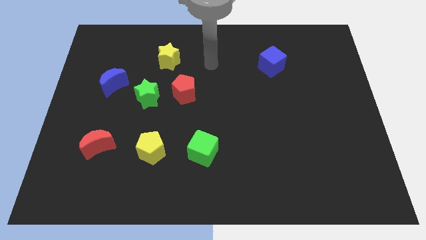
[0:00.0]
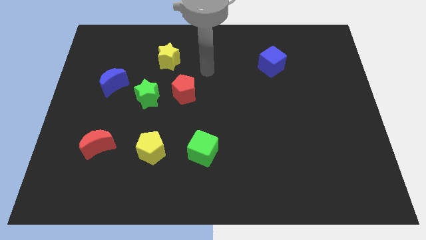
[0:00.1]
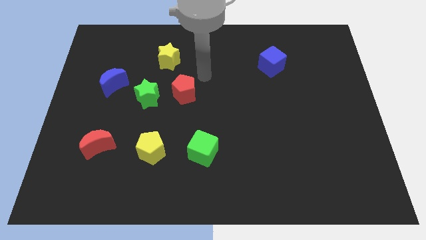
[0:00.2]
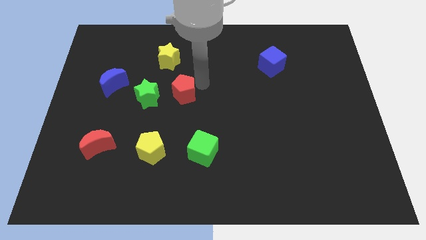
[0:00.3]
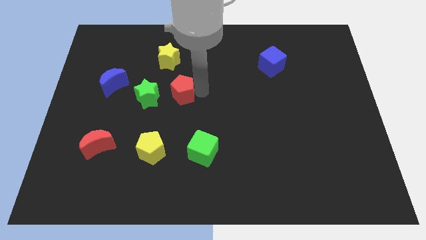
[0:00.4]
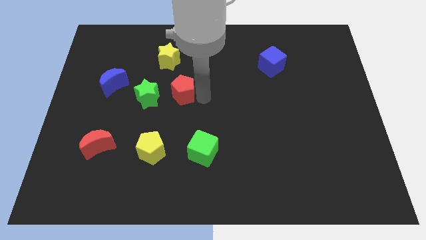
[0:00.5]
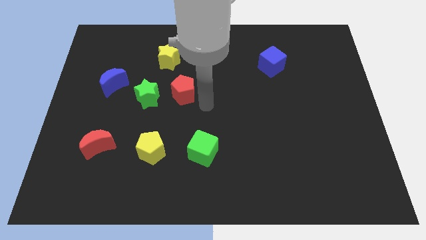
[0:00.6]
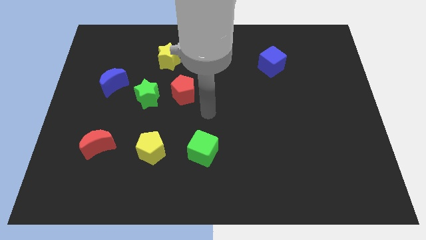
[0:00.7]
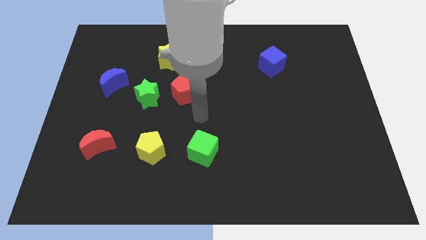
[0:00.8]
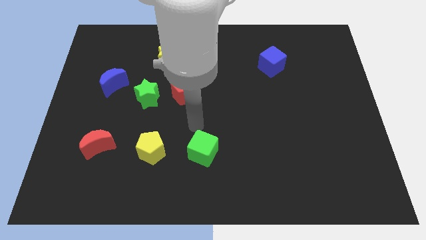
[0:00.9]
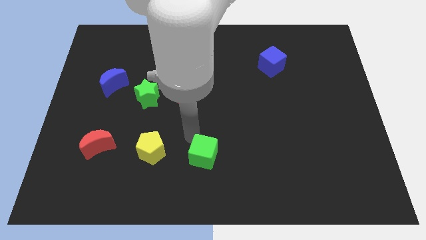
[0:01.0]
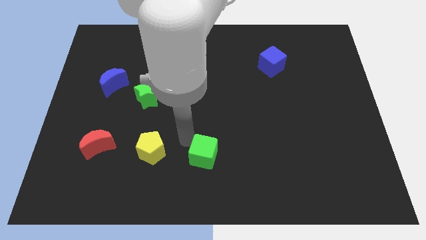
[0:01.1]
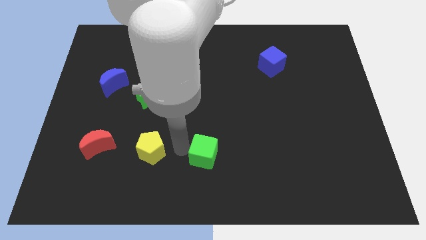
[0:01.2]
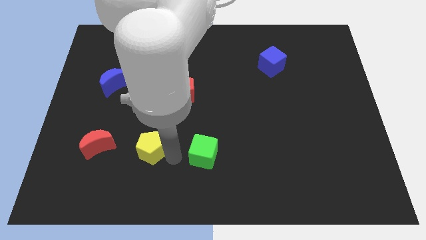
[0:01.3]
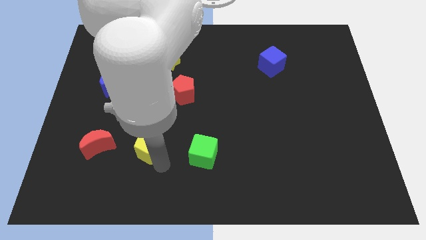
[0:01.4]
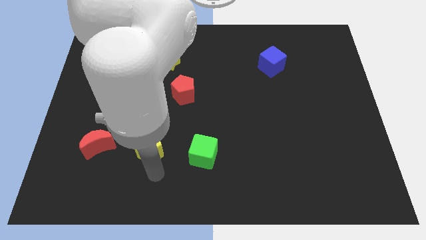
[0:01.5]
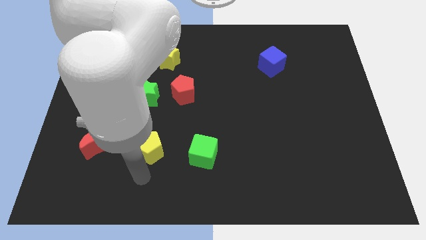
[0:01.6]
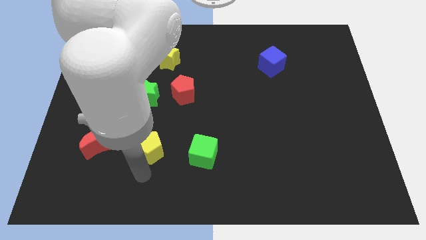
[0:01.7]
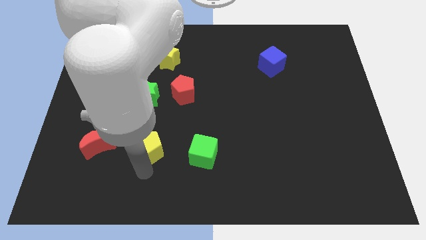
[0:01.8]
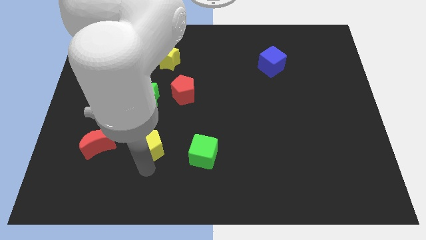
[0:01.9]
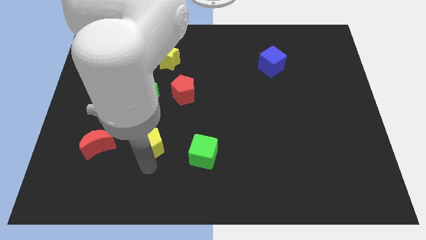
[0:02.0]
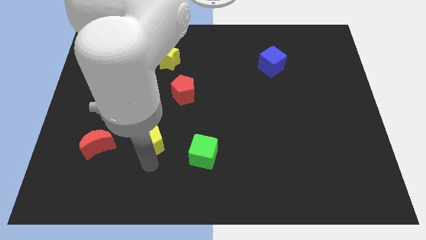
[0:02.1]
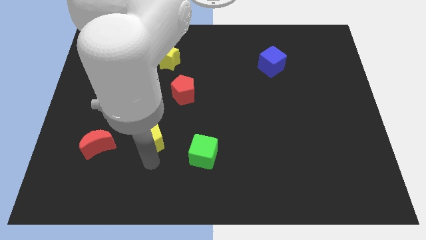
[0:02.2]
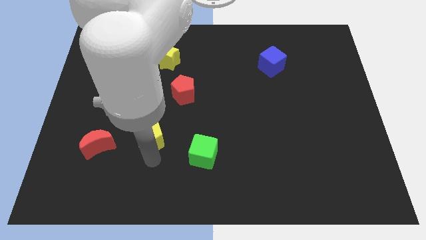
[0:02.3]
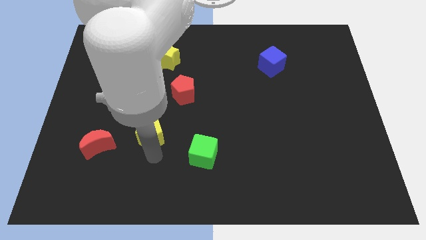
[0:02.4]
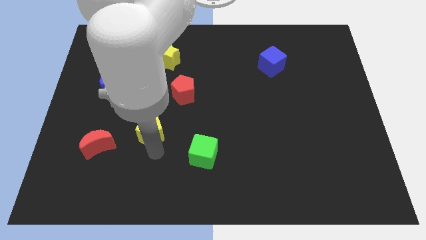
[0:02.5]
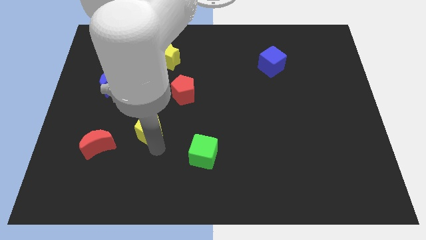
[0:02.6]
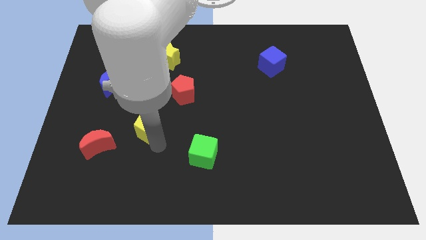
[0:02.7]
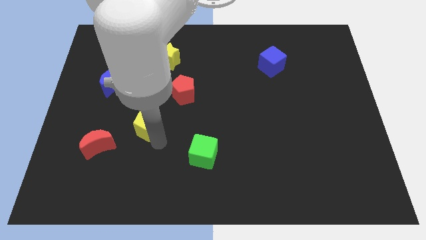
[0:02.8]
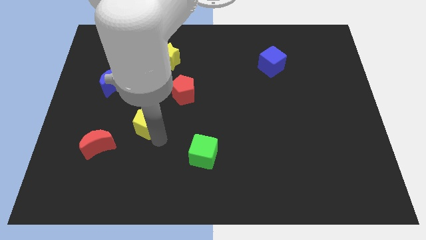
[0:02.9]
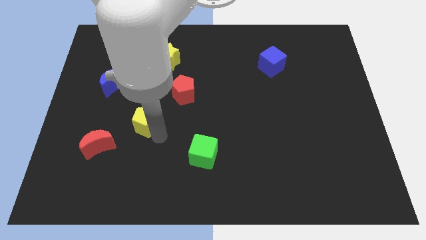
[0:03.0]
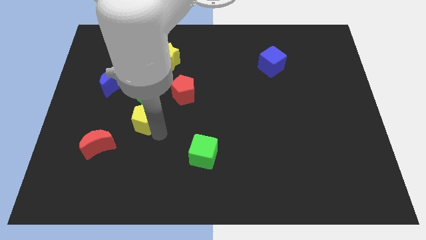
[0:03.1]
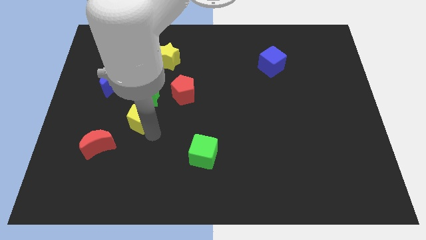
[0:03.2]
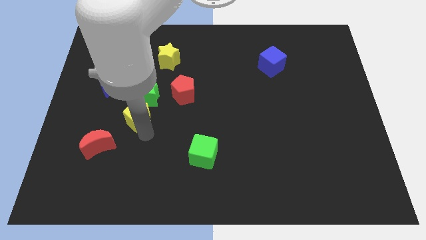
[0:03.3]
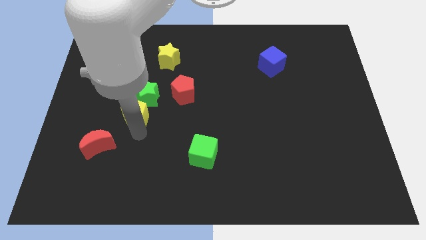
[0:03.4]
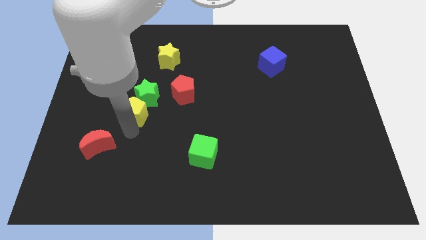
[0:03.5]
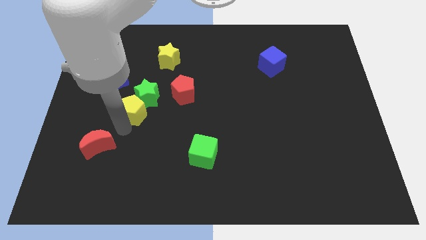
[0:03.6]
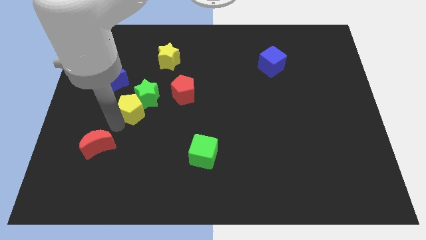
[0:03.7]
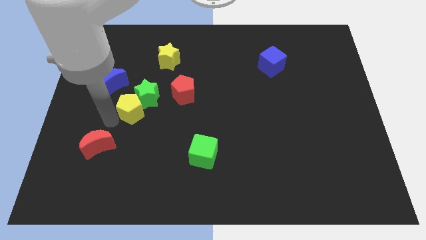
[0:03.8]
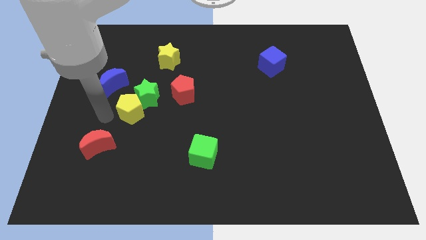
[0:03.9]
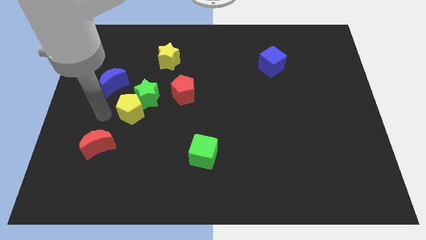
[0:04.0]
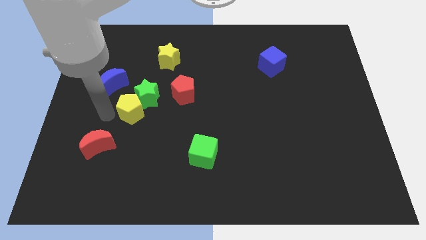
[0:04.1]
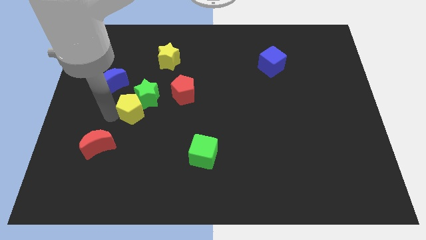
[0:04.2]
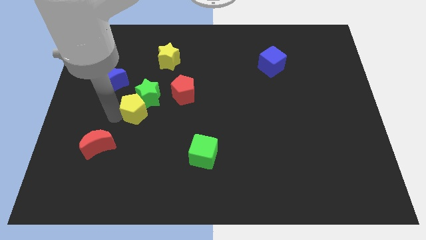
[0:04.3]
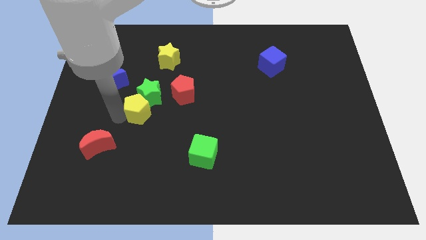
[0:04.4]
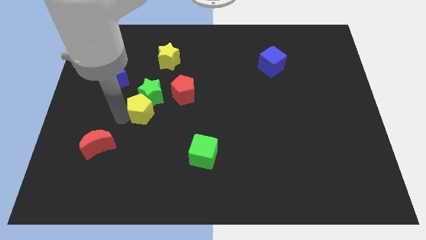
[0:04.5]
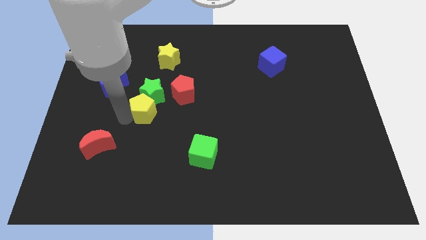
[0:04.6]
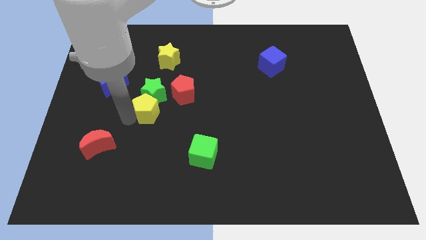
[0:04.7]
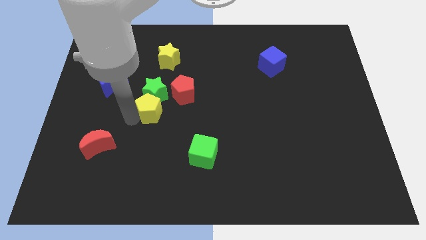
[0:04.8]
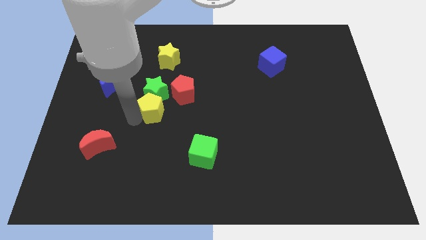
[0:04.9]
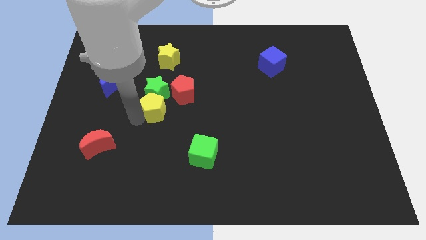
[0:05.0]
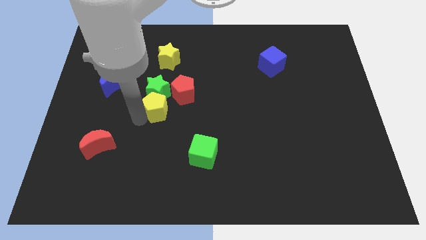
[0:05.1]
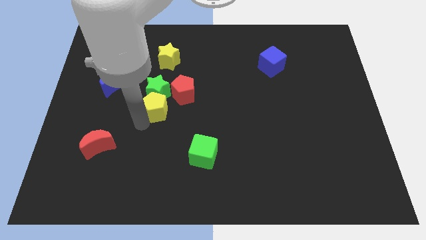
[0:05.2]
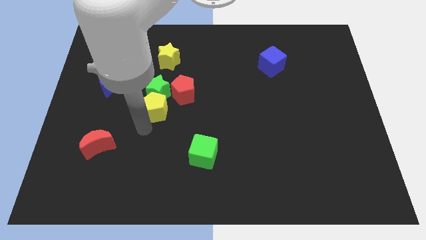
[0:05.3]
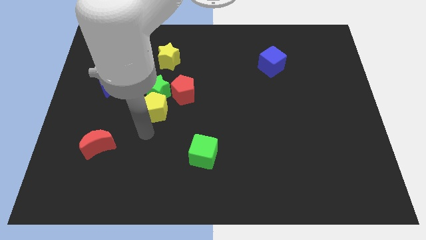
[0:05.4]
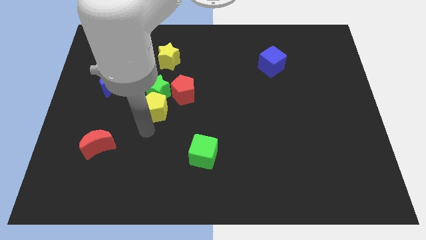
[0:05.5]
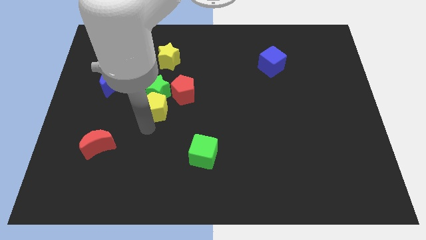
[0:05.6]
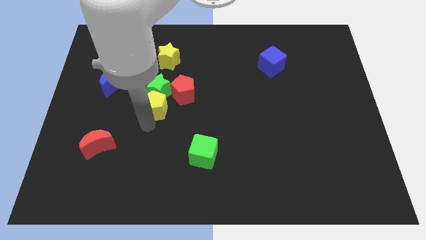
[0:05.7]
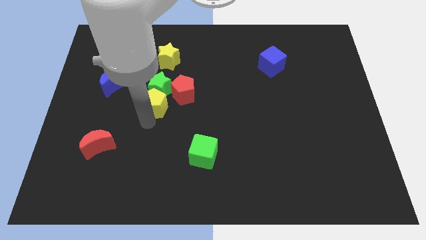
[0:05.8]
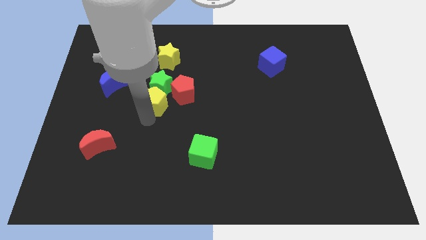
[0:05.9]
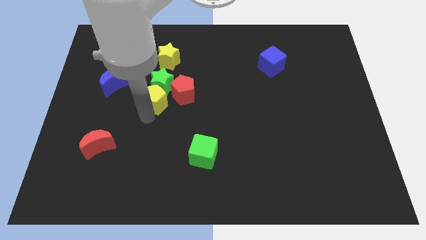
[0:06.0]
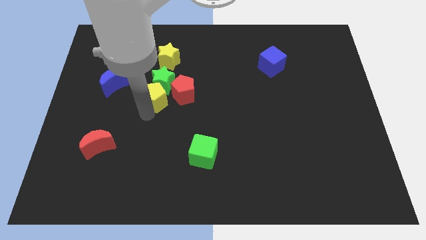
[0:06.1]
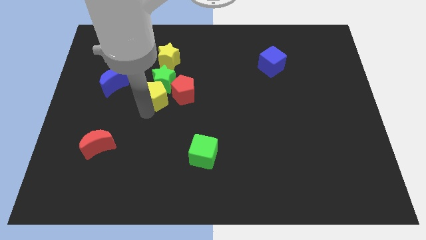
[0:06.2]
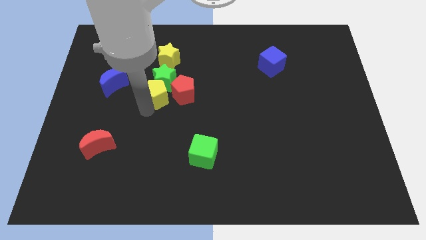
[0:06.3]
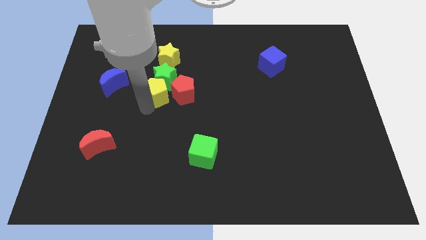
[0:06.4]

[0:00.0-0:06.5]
put the yellow pentagon diagonally up and to the left of the red pentagon

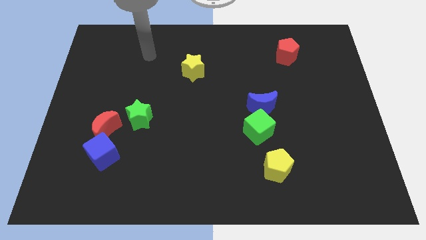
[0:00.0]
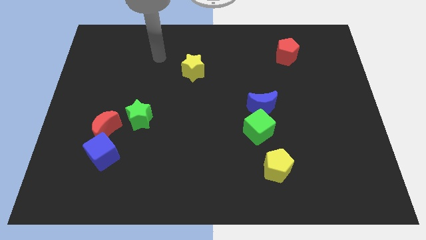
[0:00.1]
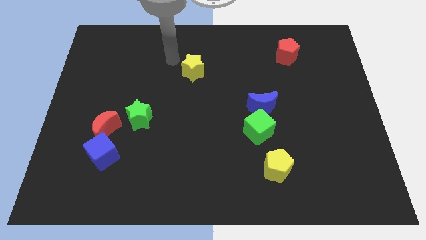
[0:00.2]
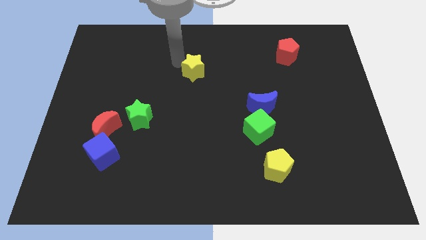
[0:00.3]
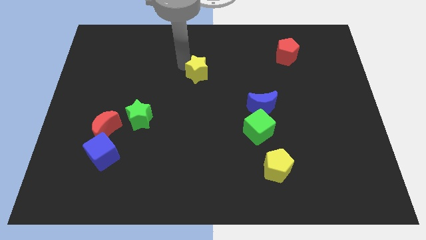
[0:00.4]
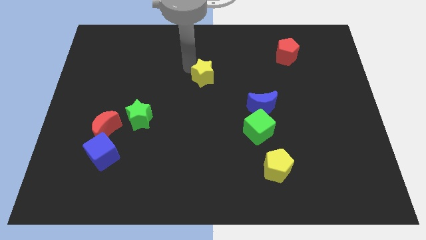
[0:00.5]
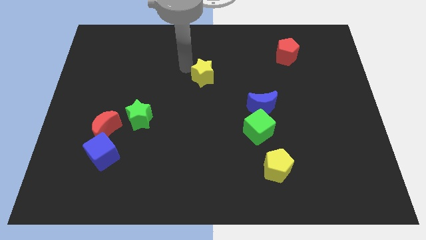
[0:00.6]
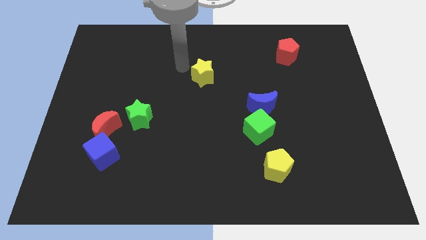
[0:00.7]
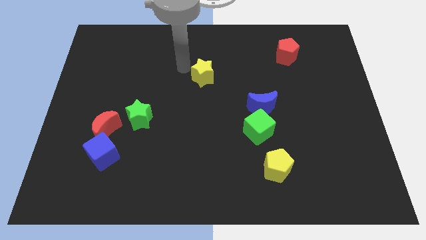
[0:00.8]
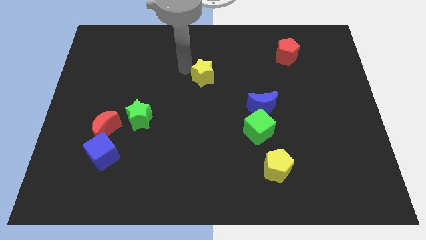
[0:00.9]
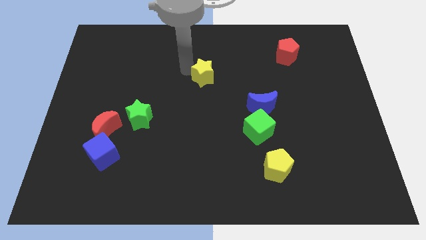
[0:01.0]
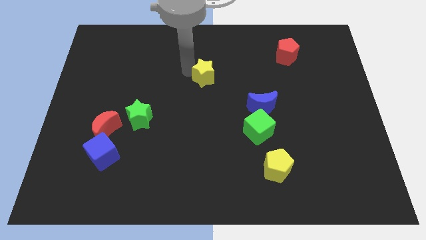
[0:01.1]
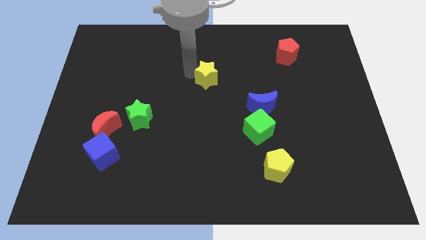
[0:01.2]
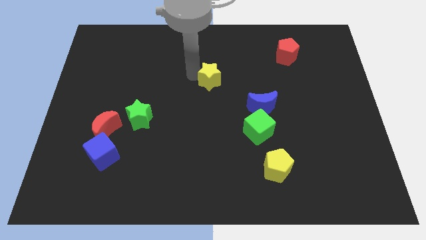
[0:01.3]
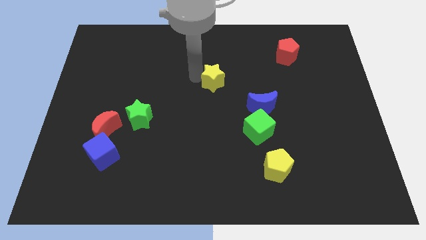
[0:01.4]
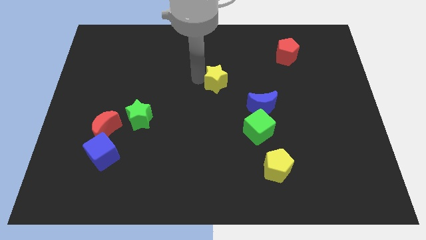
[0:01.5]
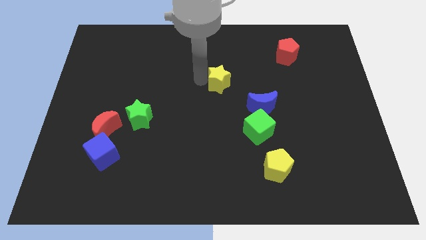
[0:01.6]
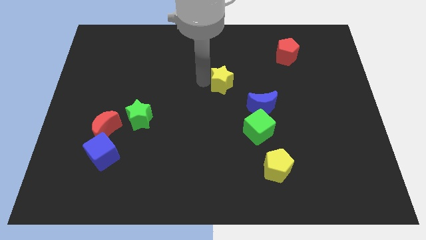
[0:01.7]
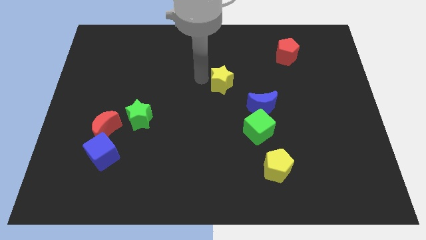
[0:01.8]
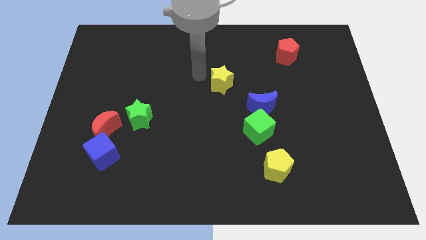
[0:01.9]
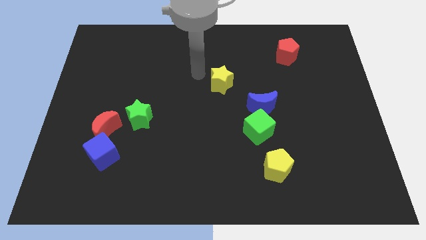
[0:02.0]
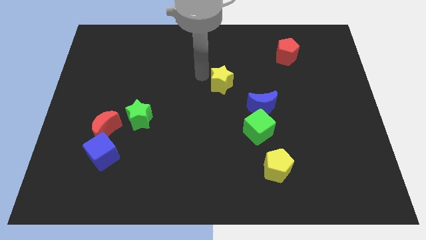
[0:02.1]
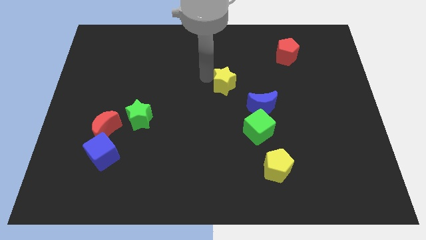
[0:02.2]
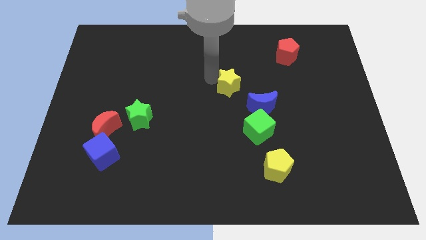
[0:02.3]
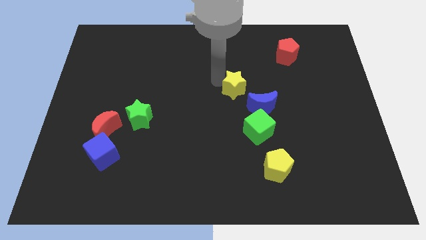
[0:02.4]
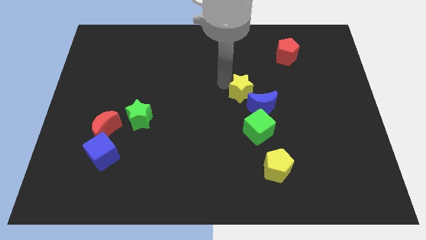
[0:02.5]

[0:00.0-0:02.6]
put the yellow star to the top side of the green cube
